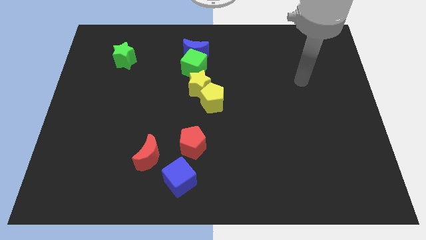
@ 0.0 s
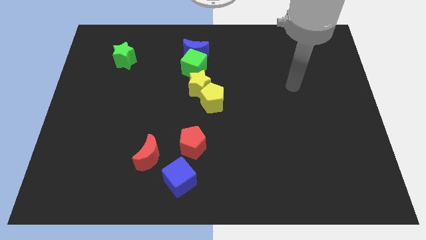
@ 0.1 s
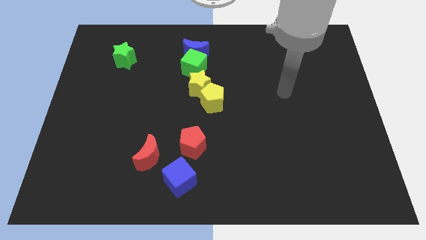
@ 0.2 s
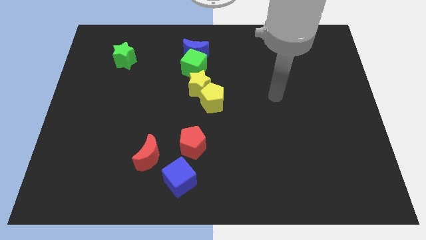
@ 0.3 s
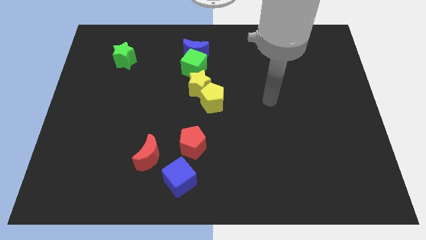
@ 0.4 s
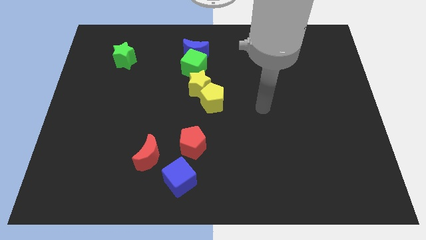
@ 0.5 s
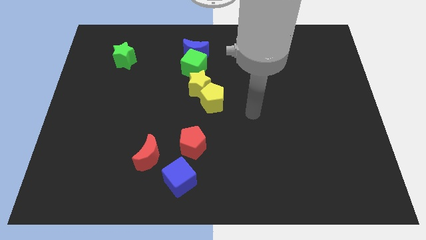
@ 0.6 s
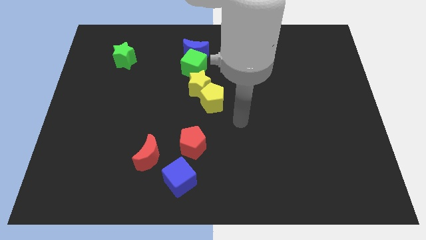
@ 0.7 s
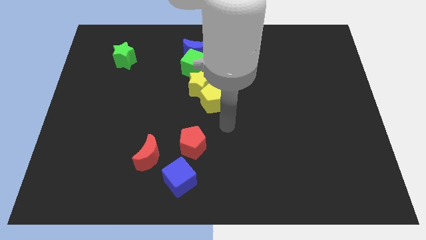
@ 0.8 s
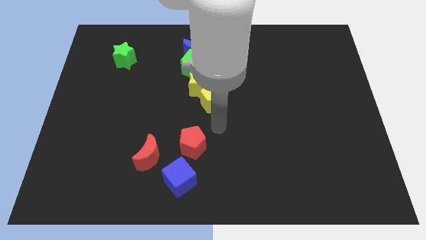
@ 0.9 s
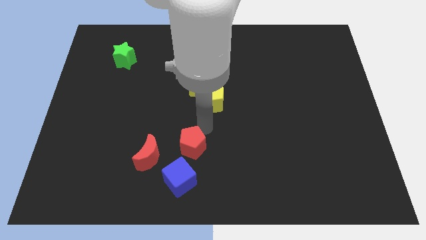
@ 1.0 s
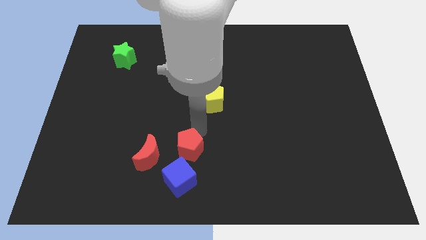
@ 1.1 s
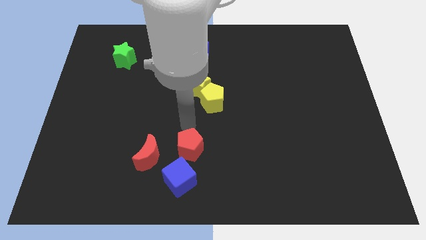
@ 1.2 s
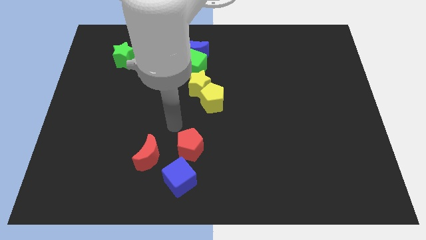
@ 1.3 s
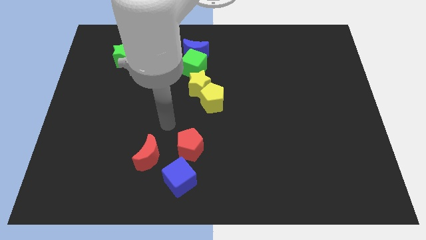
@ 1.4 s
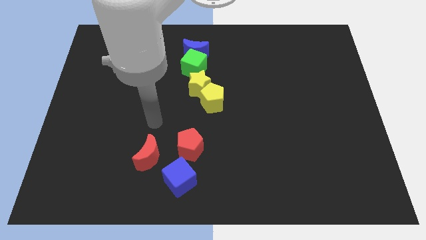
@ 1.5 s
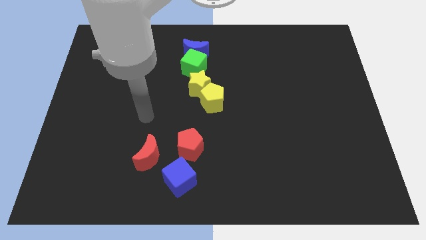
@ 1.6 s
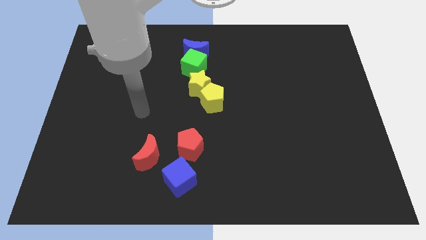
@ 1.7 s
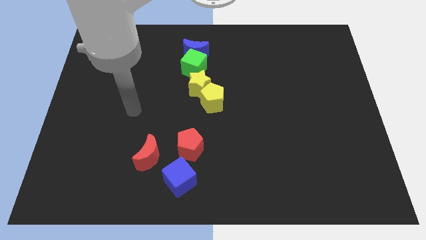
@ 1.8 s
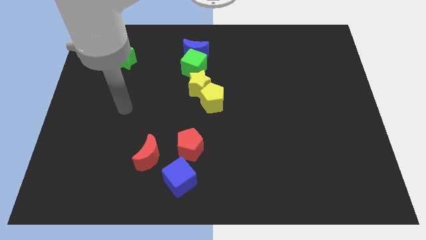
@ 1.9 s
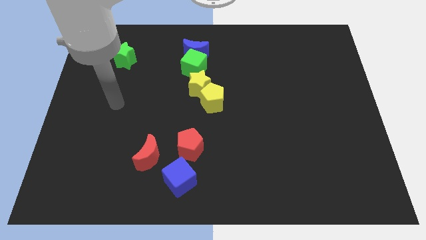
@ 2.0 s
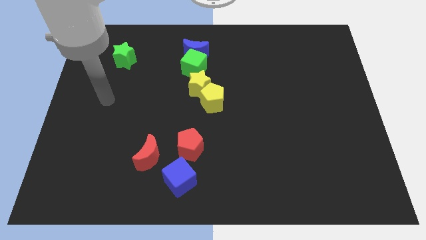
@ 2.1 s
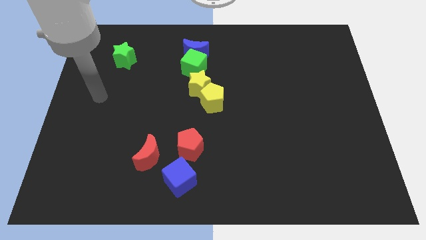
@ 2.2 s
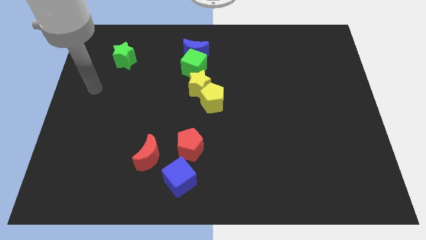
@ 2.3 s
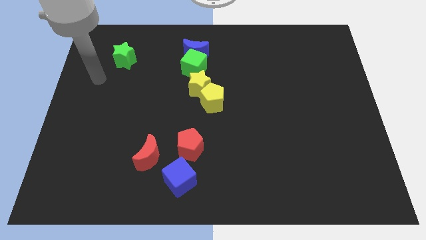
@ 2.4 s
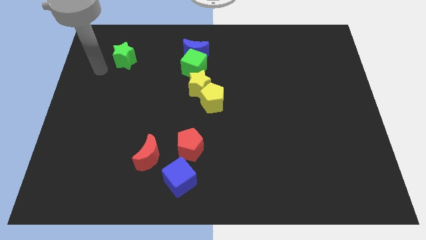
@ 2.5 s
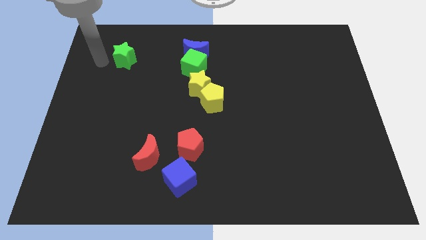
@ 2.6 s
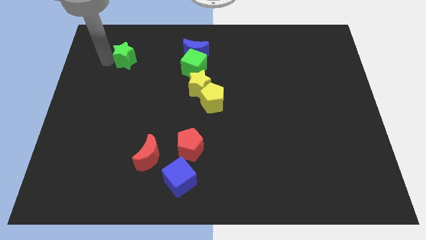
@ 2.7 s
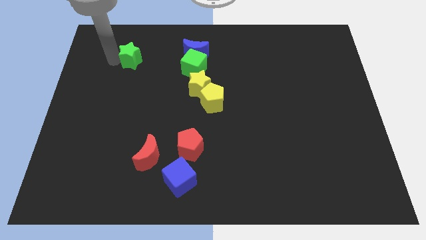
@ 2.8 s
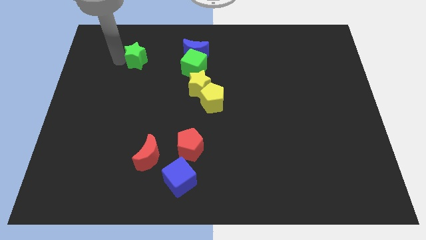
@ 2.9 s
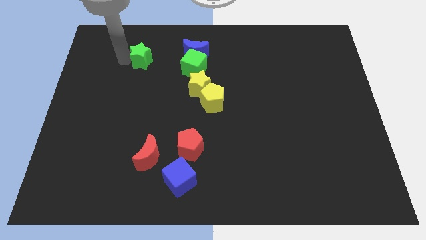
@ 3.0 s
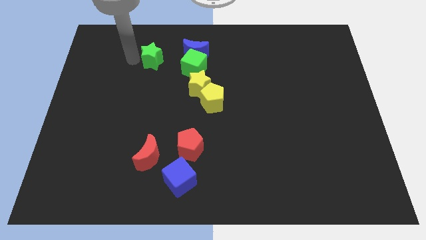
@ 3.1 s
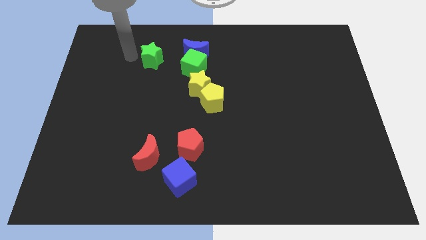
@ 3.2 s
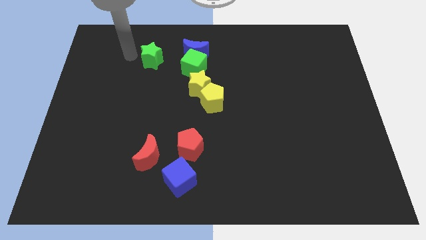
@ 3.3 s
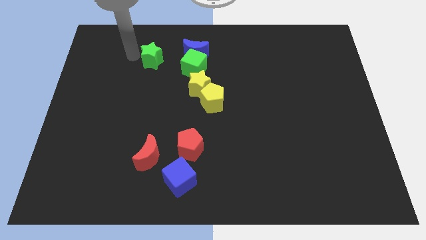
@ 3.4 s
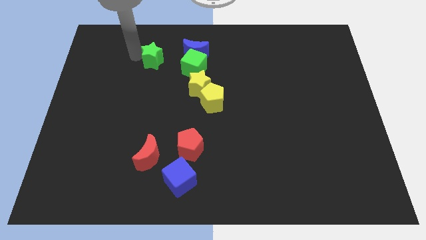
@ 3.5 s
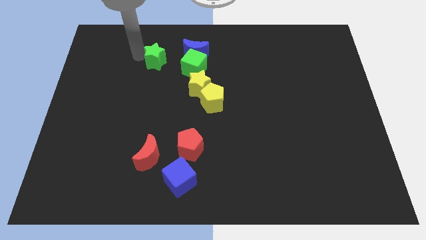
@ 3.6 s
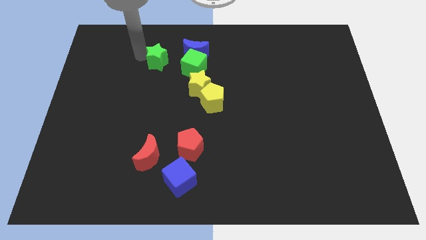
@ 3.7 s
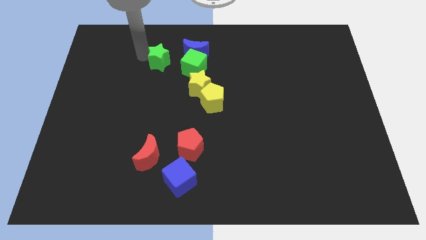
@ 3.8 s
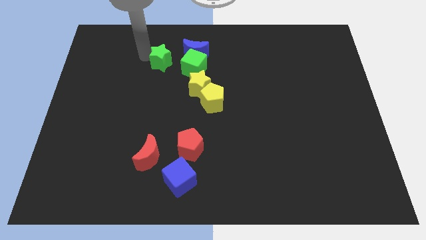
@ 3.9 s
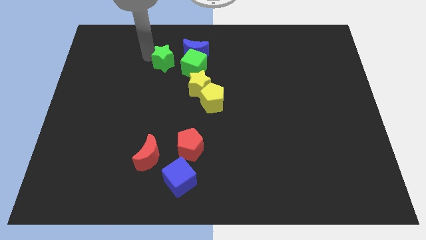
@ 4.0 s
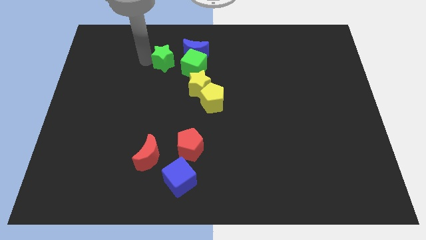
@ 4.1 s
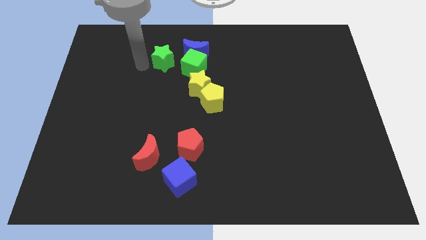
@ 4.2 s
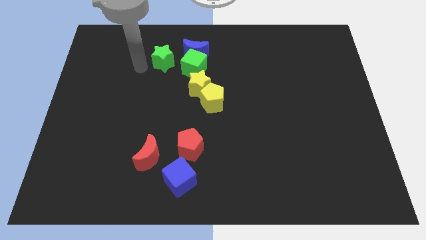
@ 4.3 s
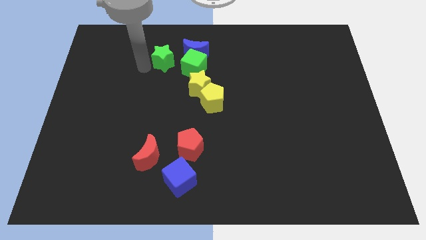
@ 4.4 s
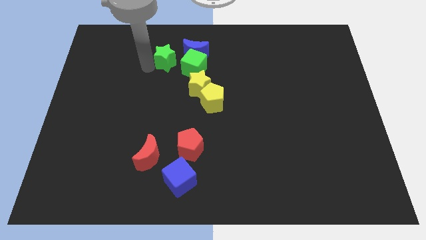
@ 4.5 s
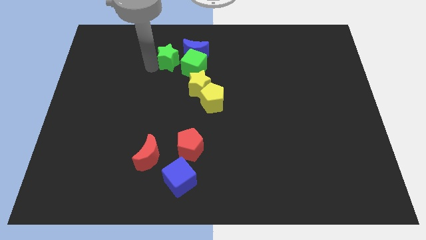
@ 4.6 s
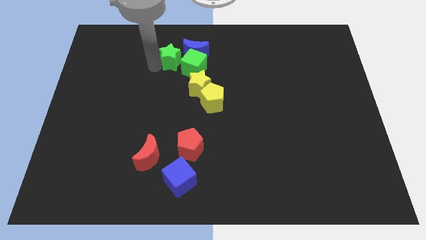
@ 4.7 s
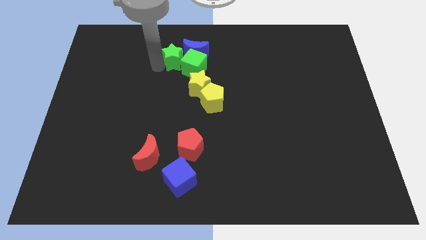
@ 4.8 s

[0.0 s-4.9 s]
slide the green star close to the blue moon

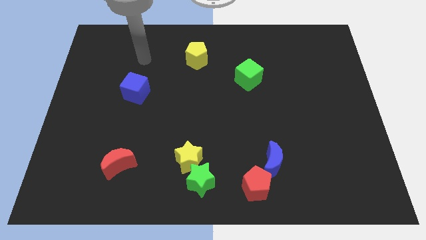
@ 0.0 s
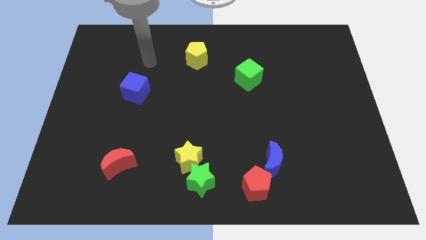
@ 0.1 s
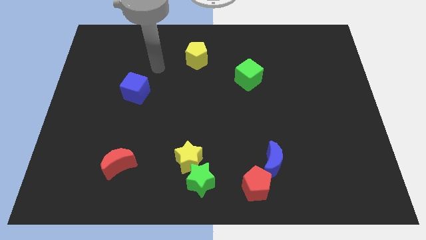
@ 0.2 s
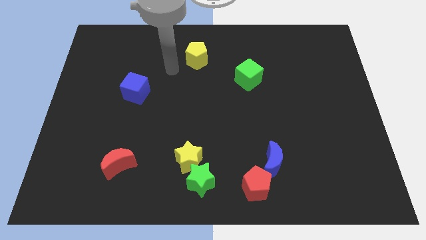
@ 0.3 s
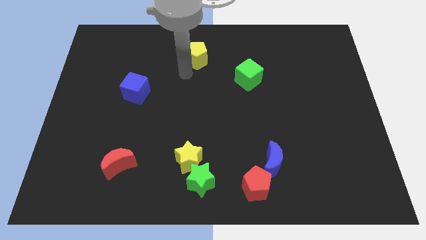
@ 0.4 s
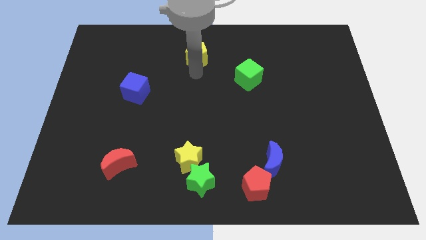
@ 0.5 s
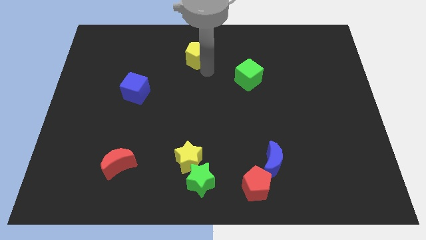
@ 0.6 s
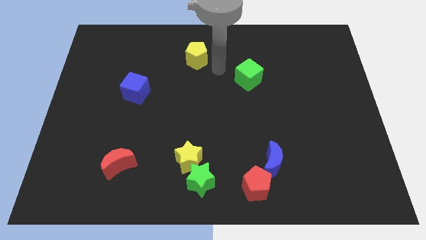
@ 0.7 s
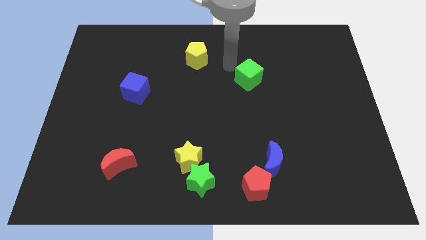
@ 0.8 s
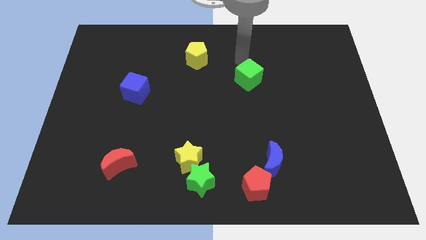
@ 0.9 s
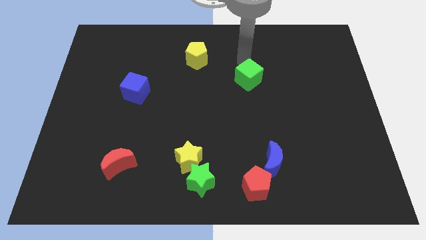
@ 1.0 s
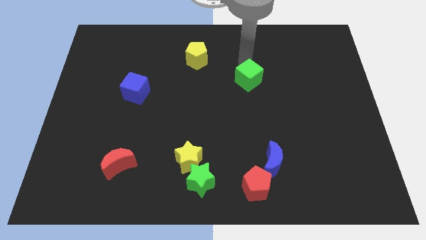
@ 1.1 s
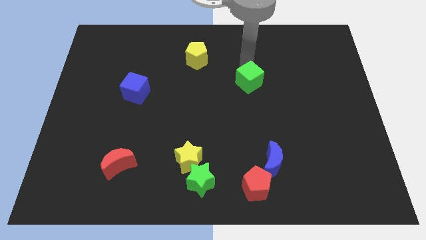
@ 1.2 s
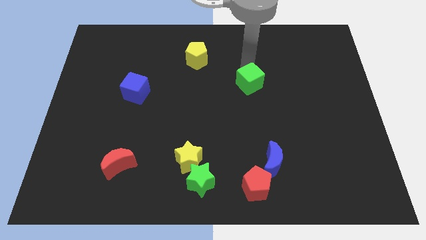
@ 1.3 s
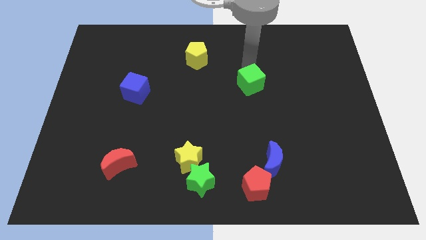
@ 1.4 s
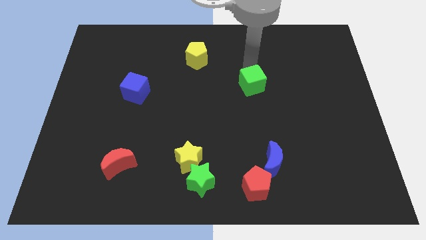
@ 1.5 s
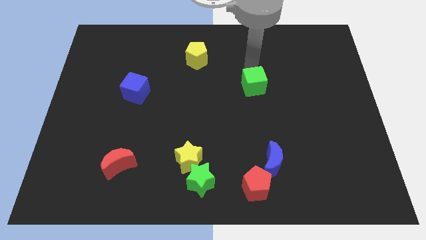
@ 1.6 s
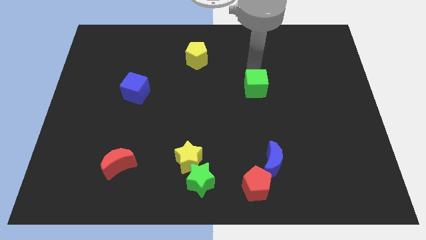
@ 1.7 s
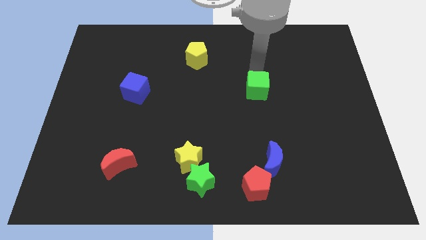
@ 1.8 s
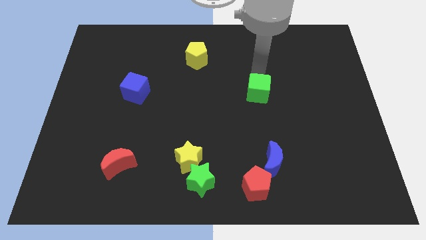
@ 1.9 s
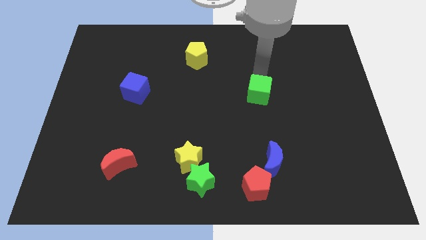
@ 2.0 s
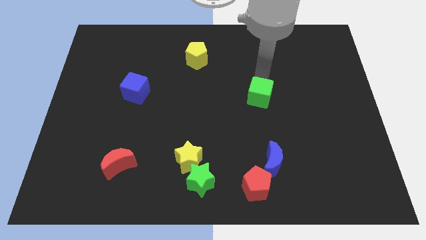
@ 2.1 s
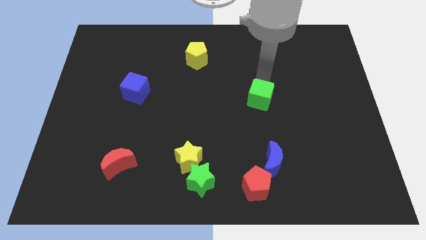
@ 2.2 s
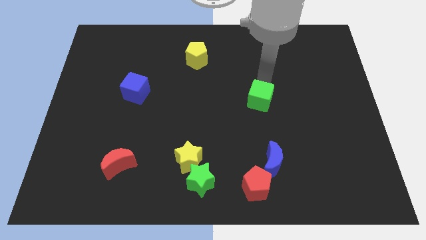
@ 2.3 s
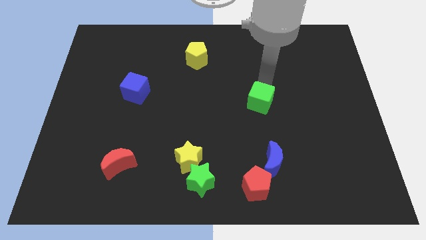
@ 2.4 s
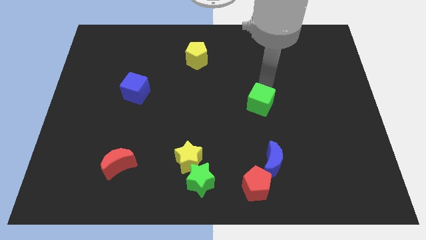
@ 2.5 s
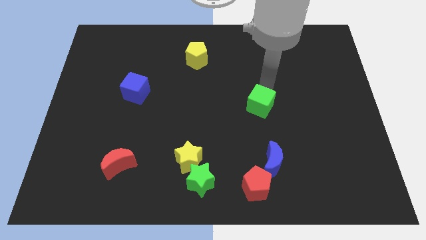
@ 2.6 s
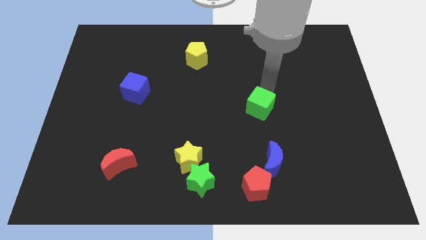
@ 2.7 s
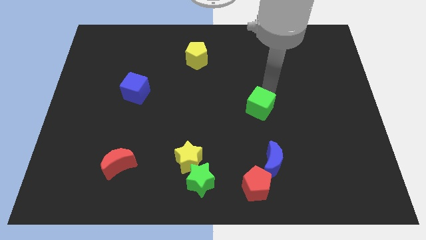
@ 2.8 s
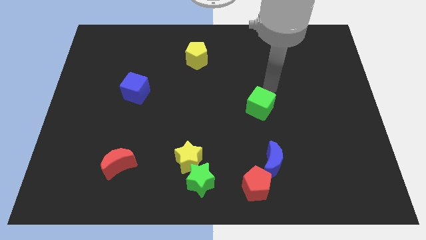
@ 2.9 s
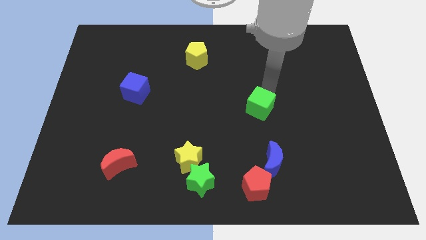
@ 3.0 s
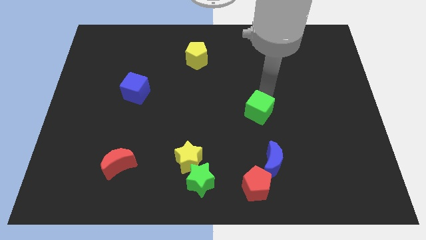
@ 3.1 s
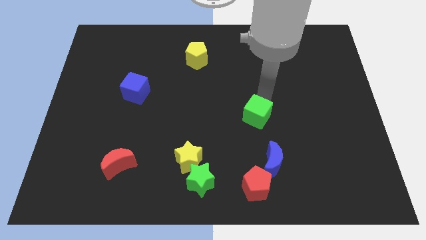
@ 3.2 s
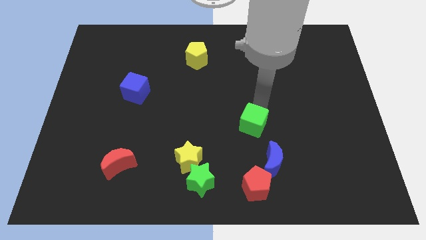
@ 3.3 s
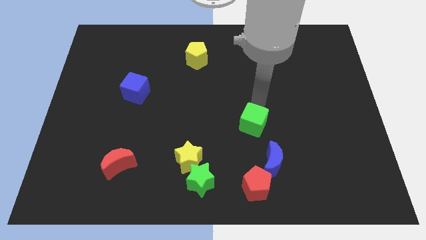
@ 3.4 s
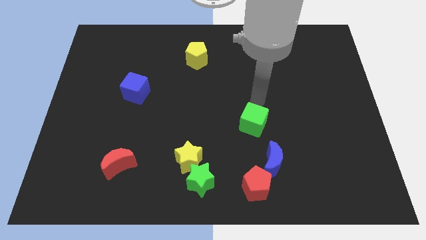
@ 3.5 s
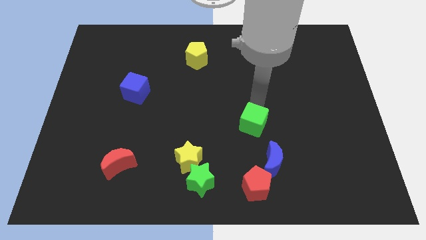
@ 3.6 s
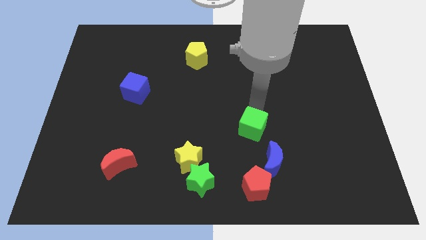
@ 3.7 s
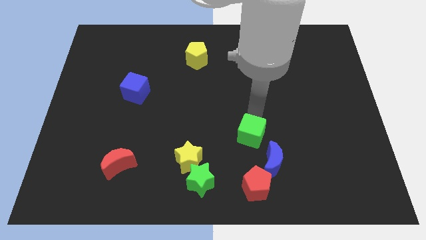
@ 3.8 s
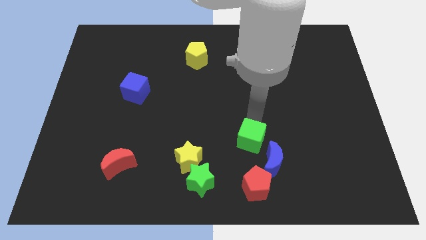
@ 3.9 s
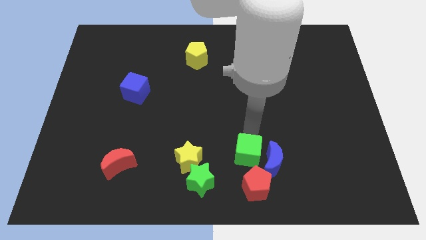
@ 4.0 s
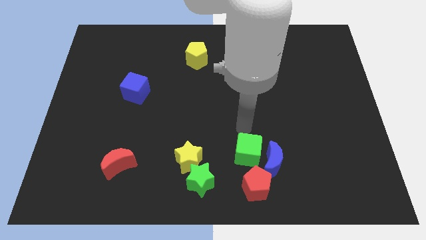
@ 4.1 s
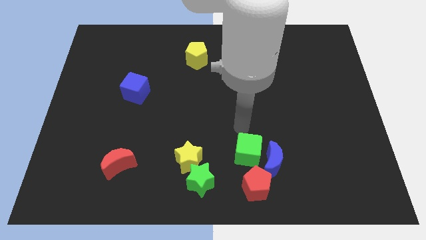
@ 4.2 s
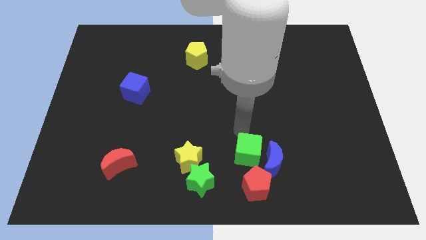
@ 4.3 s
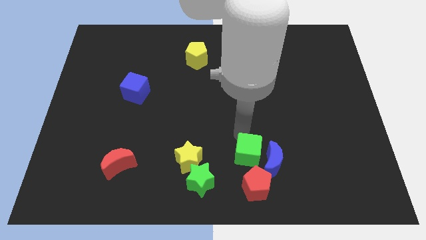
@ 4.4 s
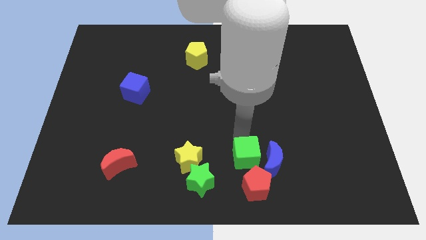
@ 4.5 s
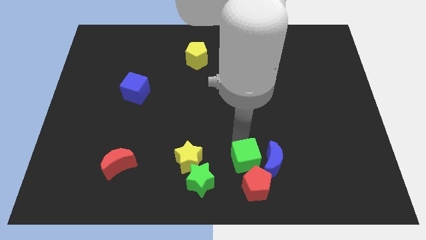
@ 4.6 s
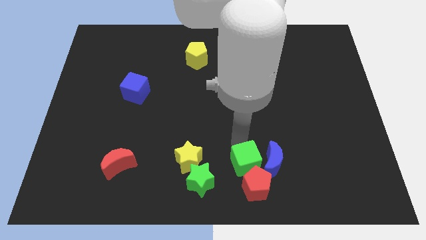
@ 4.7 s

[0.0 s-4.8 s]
move the green cube towards the red pentagon
